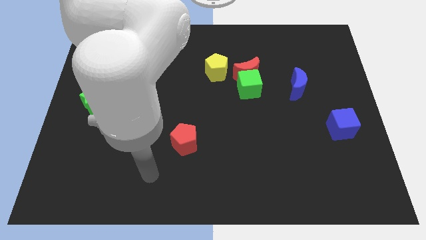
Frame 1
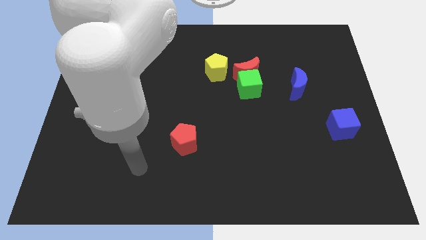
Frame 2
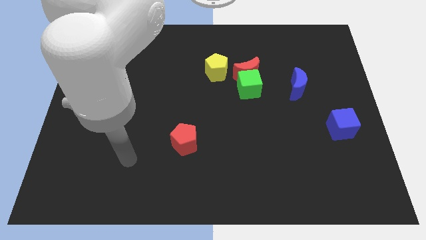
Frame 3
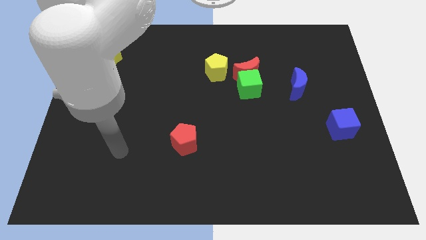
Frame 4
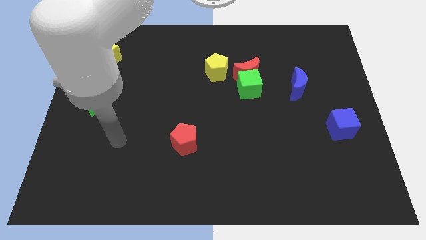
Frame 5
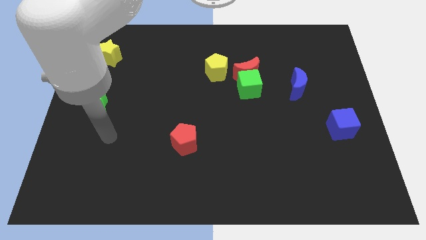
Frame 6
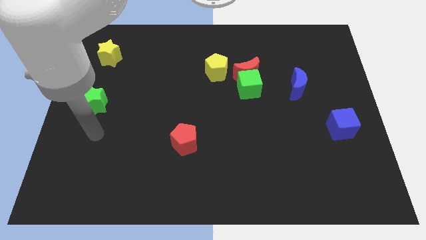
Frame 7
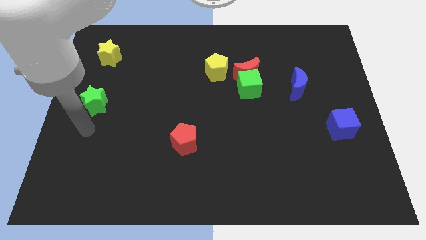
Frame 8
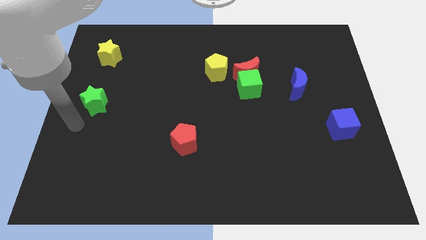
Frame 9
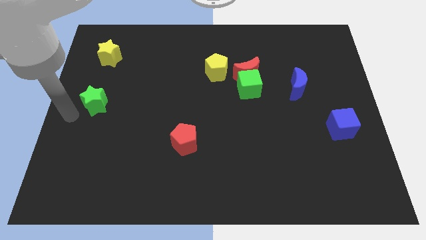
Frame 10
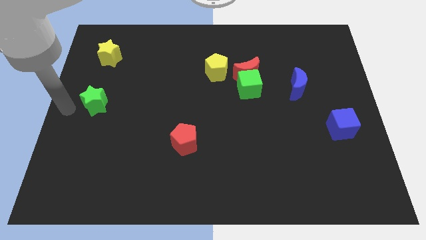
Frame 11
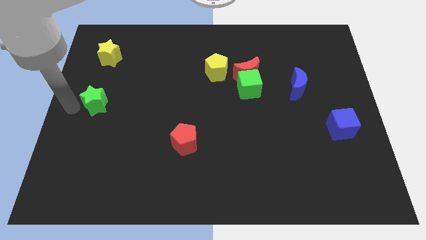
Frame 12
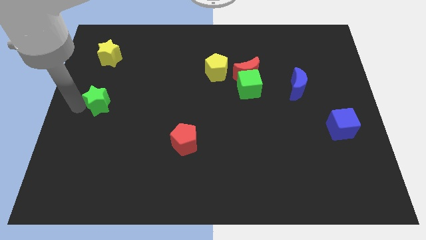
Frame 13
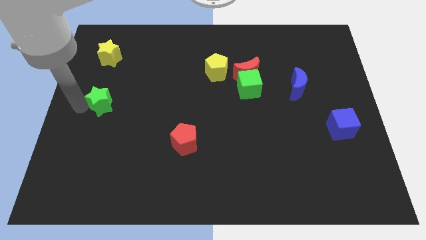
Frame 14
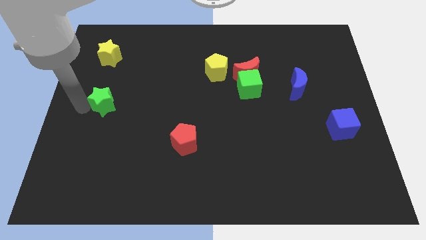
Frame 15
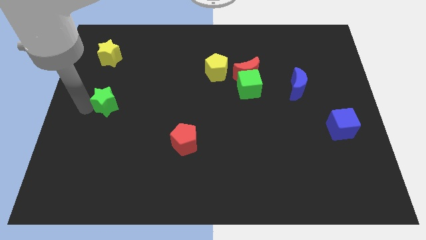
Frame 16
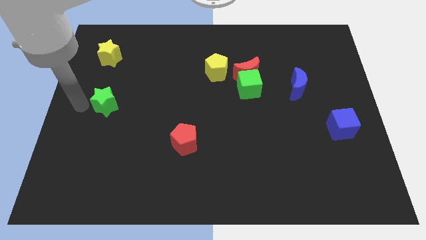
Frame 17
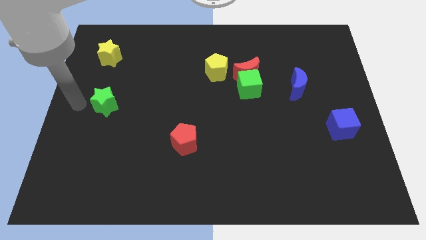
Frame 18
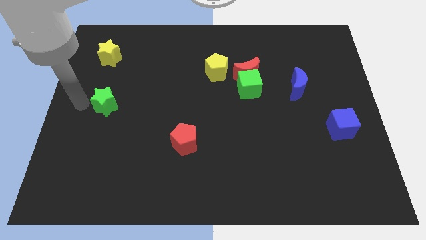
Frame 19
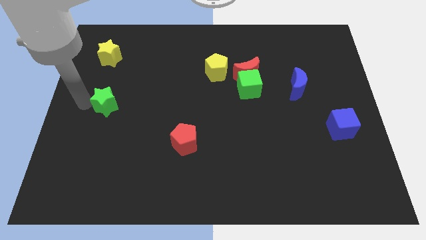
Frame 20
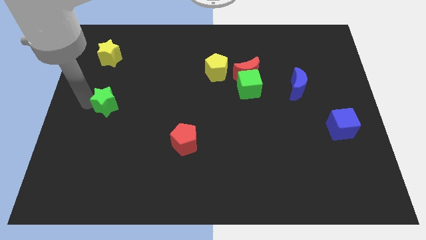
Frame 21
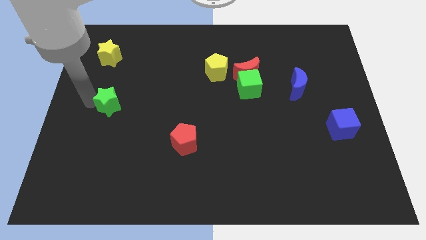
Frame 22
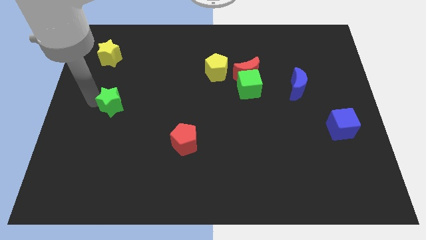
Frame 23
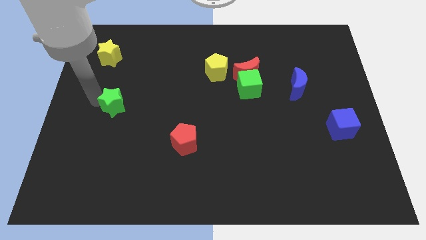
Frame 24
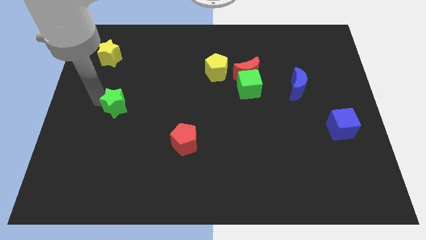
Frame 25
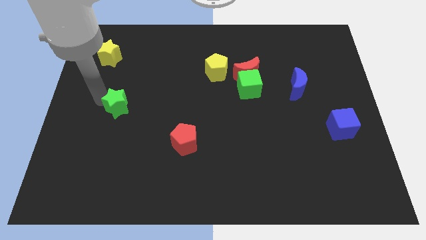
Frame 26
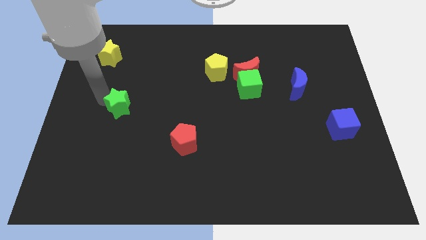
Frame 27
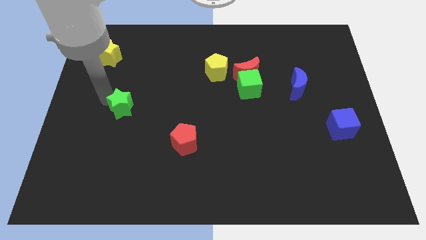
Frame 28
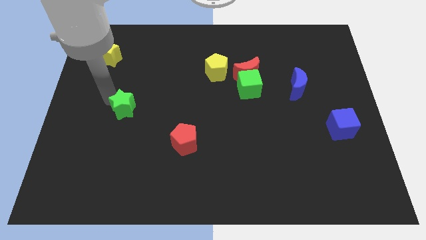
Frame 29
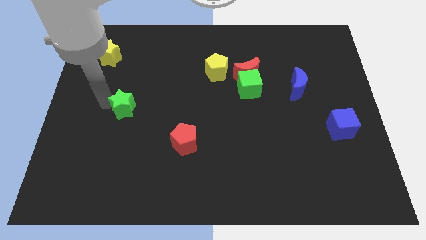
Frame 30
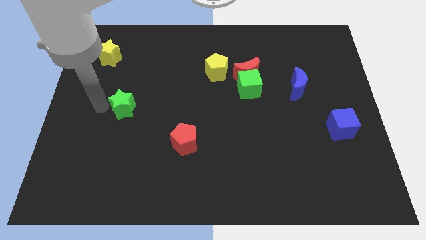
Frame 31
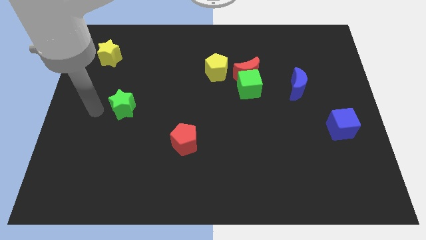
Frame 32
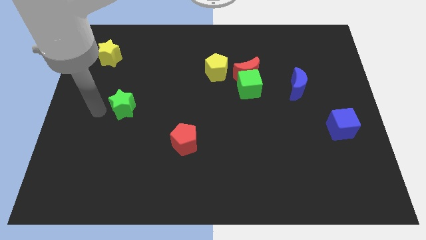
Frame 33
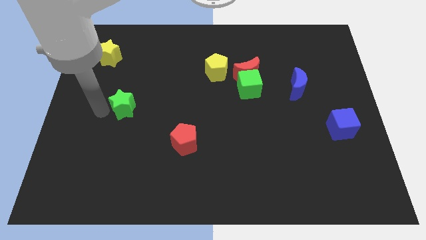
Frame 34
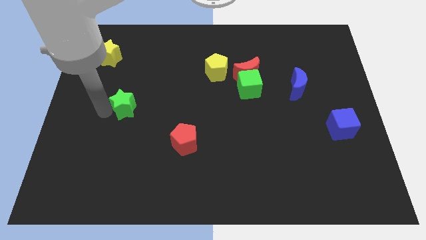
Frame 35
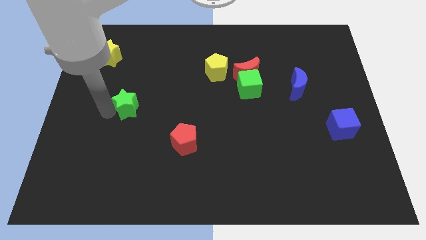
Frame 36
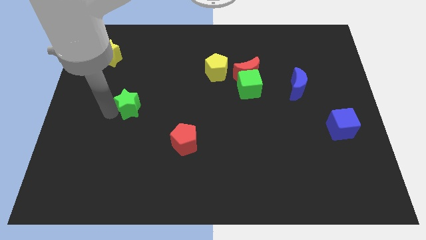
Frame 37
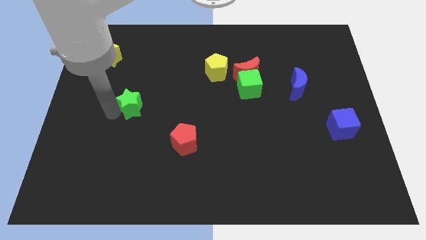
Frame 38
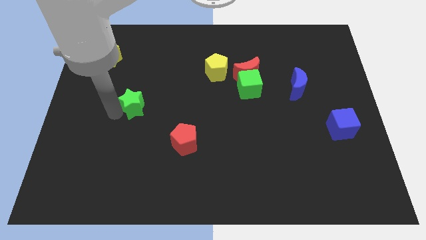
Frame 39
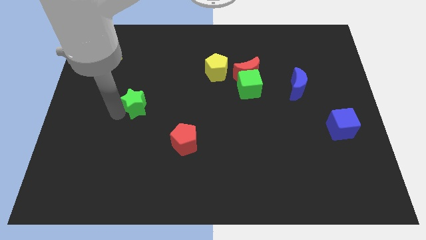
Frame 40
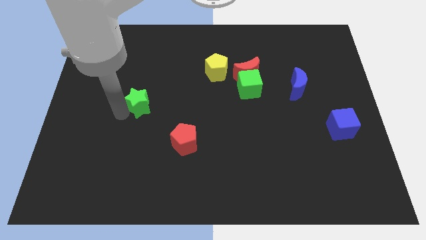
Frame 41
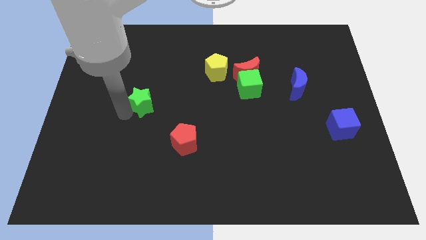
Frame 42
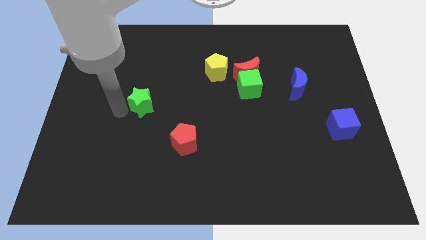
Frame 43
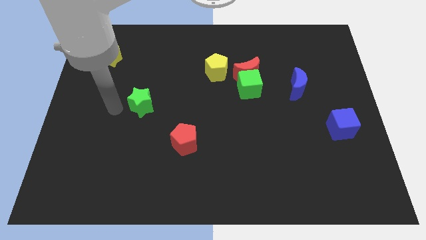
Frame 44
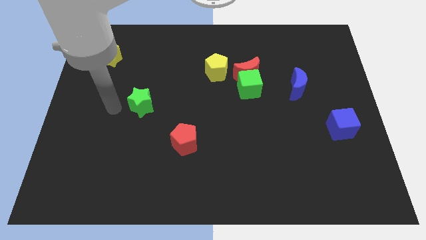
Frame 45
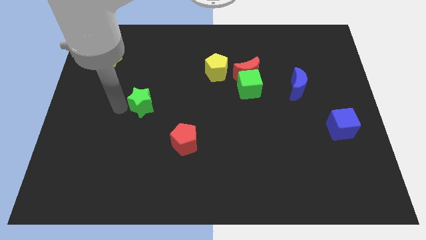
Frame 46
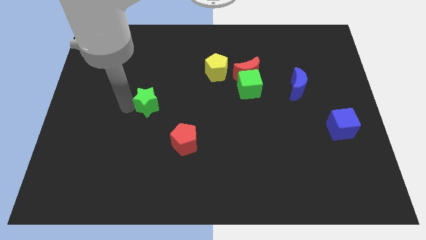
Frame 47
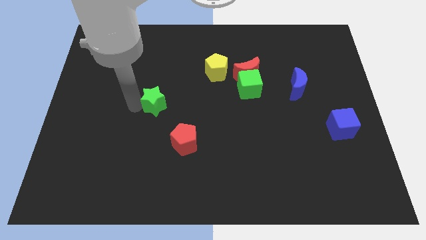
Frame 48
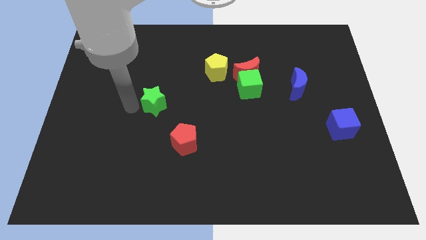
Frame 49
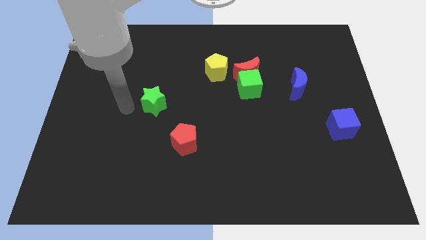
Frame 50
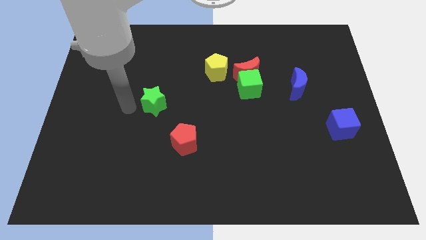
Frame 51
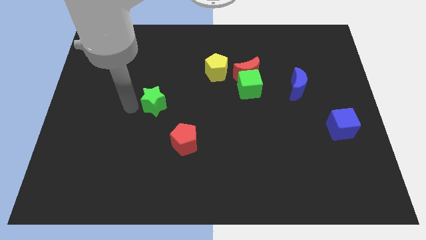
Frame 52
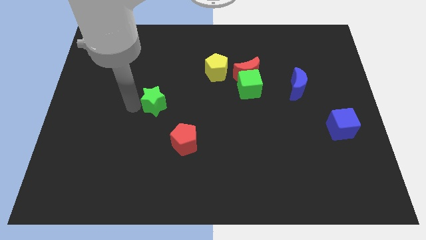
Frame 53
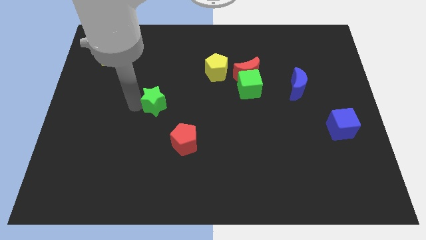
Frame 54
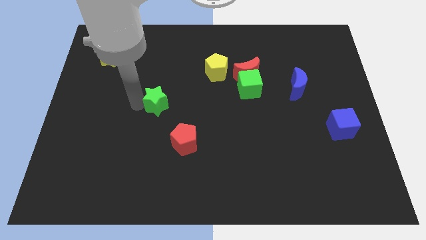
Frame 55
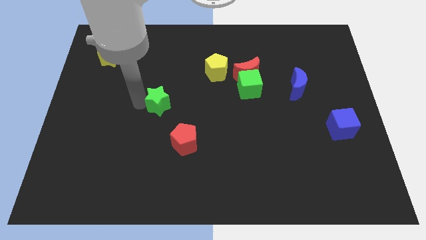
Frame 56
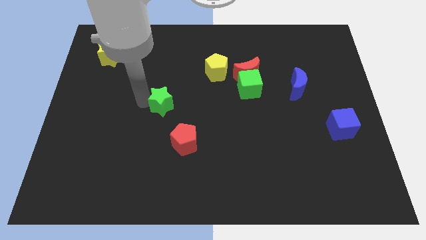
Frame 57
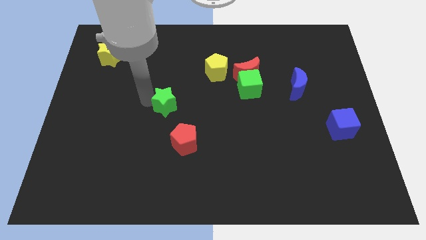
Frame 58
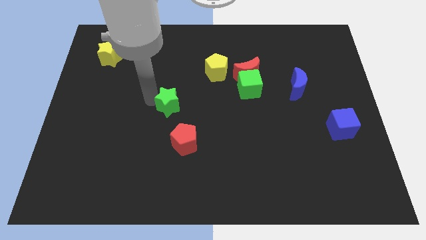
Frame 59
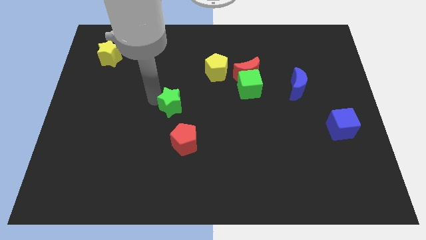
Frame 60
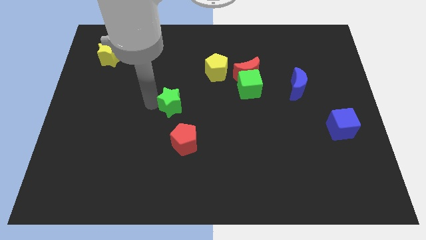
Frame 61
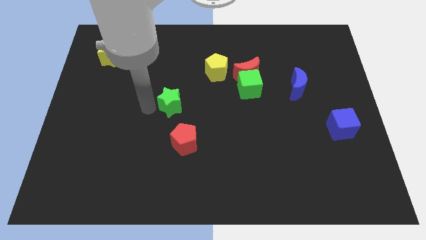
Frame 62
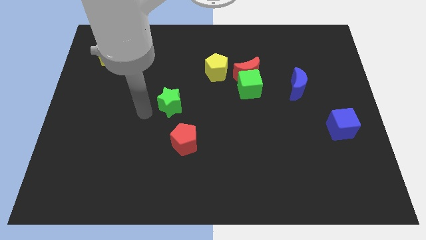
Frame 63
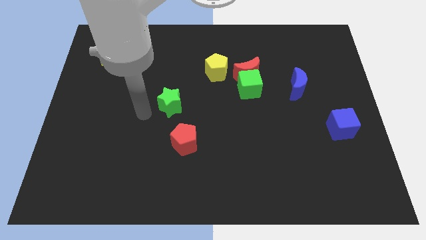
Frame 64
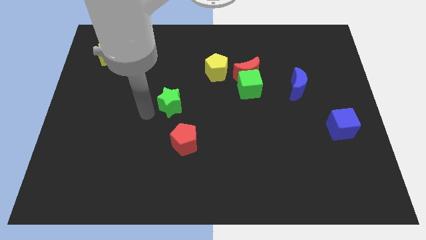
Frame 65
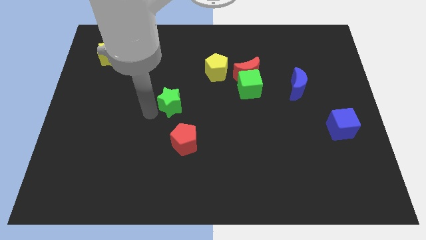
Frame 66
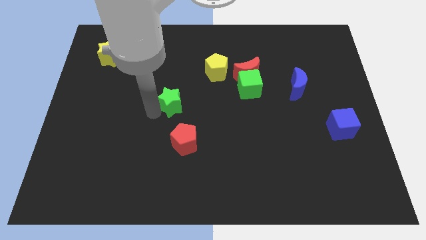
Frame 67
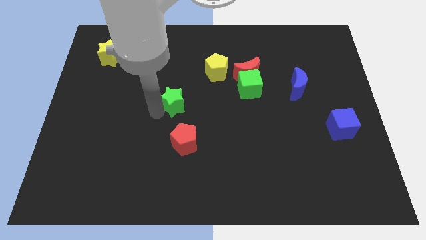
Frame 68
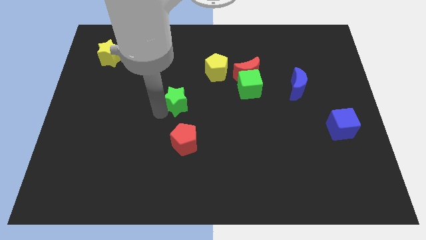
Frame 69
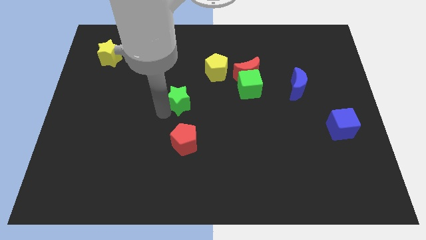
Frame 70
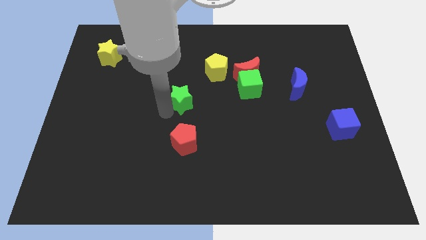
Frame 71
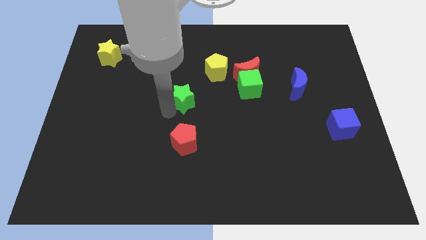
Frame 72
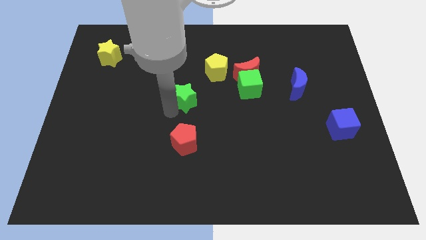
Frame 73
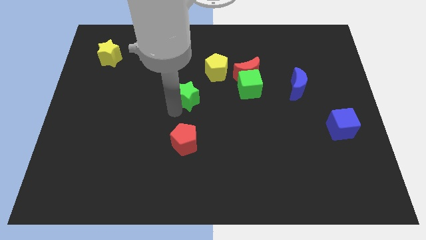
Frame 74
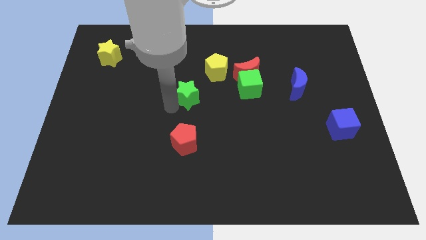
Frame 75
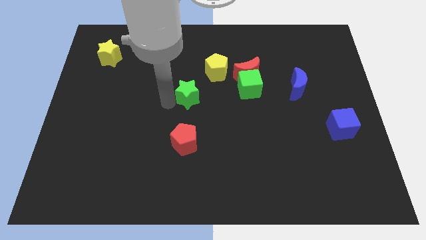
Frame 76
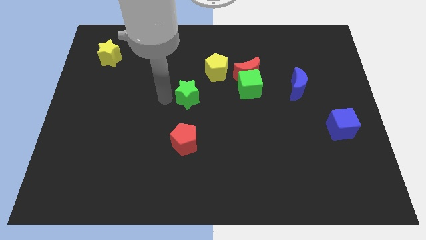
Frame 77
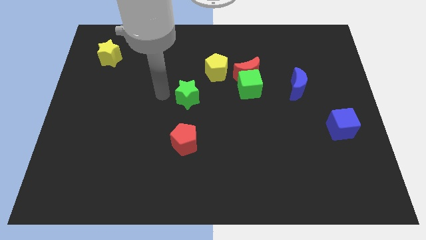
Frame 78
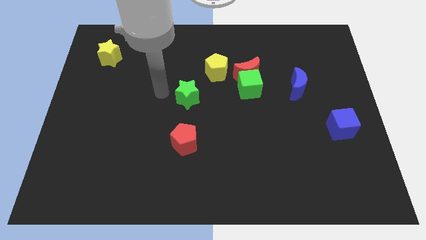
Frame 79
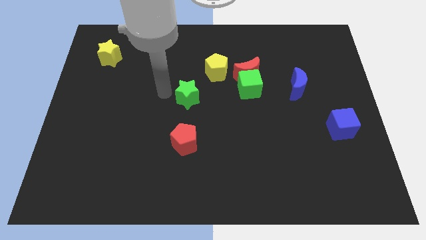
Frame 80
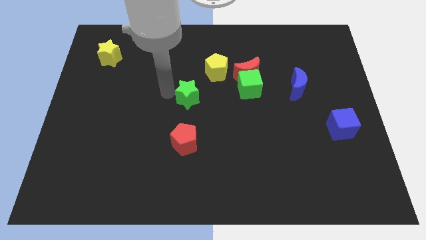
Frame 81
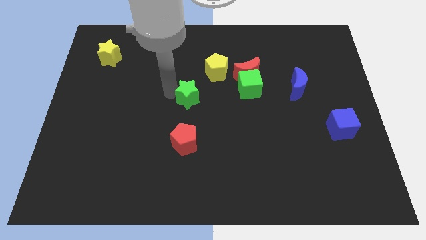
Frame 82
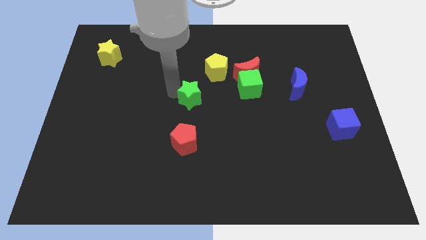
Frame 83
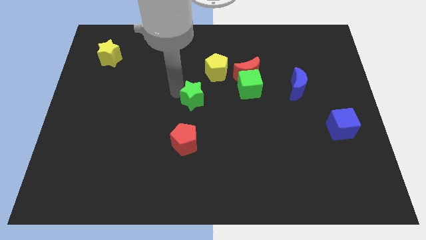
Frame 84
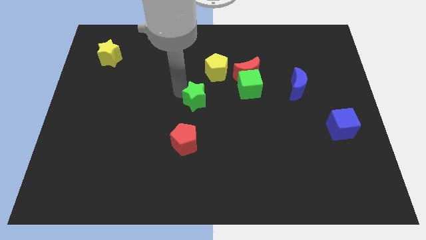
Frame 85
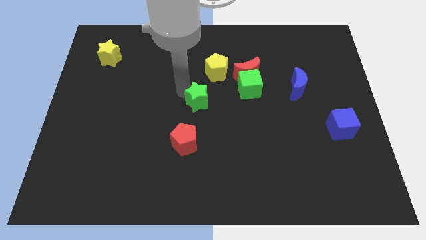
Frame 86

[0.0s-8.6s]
slide the green star to the bottom side of the yellow pentagon
